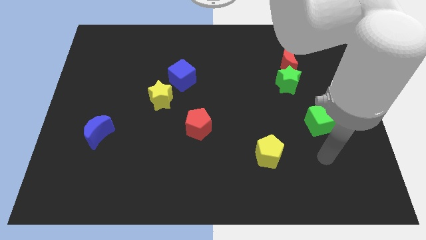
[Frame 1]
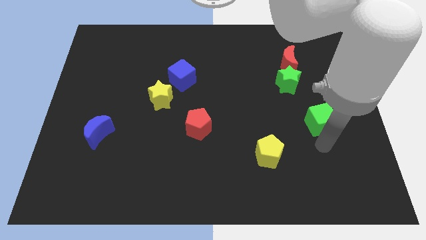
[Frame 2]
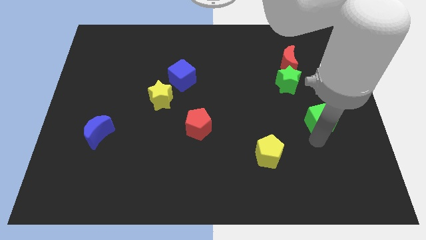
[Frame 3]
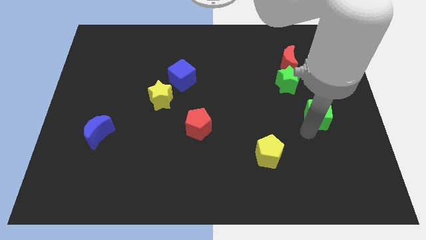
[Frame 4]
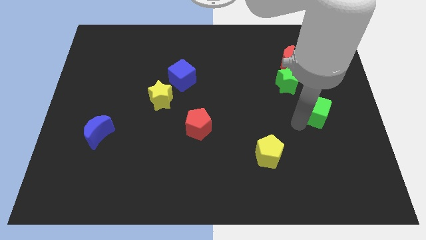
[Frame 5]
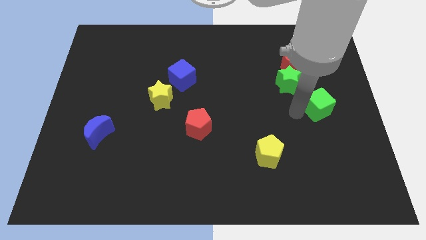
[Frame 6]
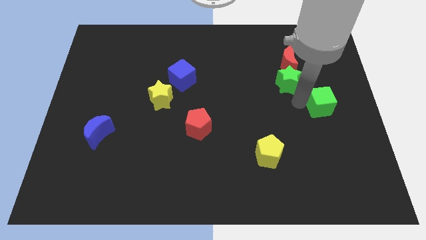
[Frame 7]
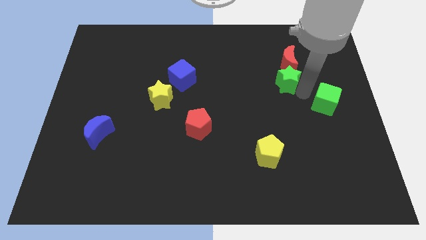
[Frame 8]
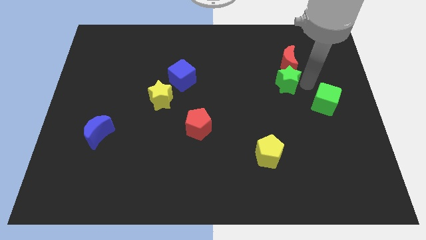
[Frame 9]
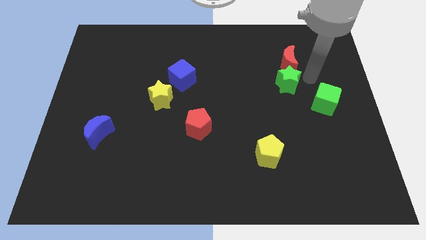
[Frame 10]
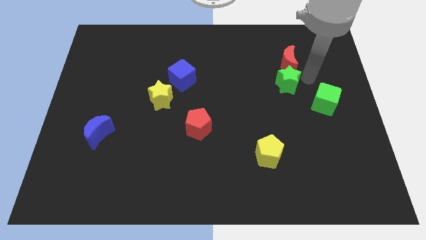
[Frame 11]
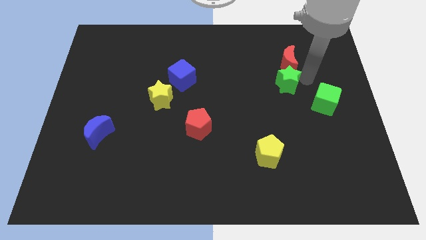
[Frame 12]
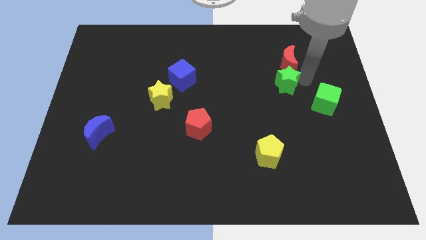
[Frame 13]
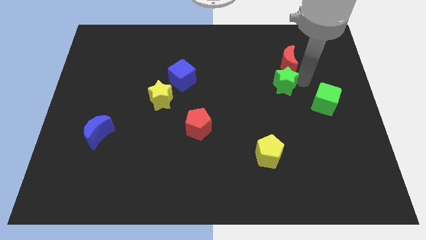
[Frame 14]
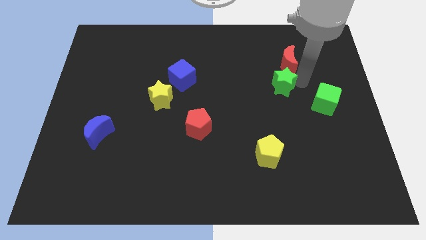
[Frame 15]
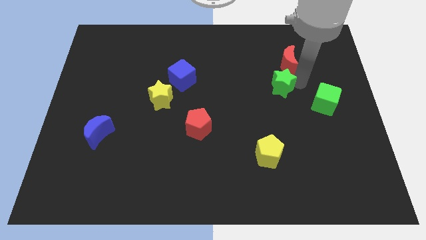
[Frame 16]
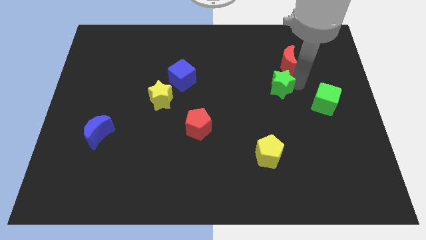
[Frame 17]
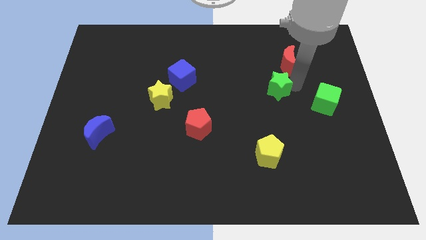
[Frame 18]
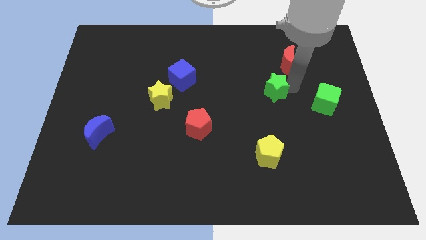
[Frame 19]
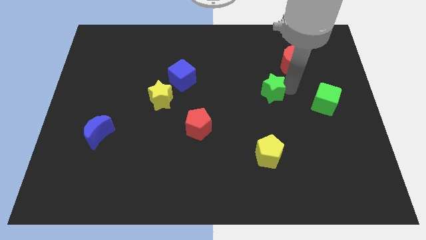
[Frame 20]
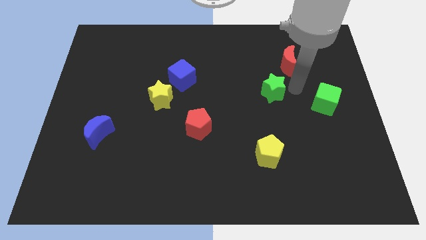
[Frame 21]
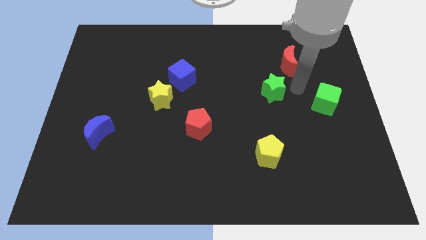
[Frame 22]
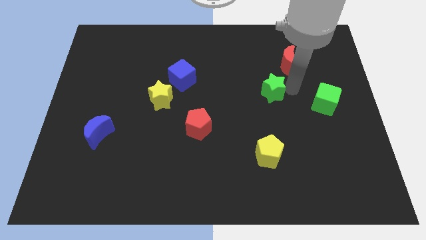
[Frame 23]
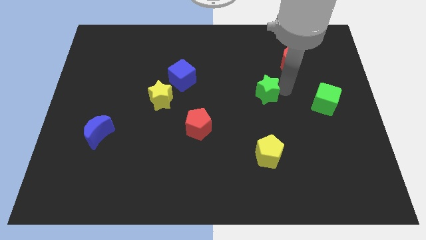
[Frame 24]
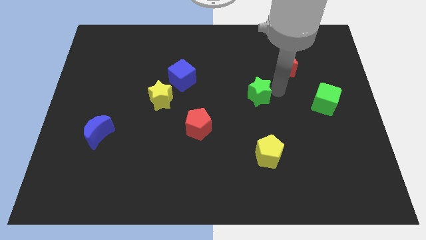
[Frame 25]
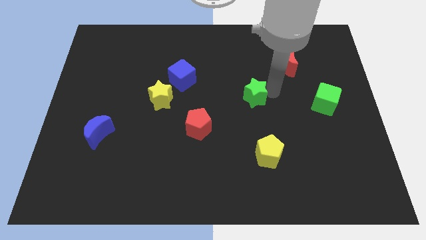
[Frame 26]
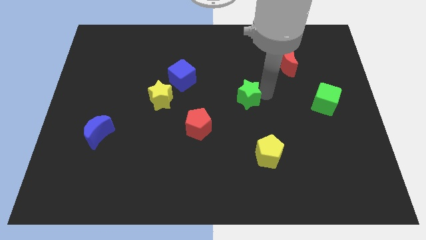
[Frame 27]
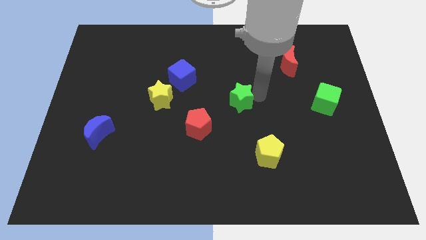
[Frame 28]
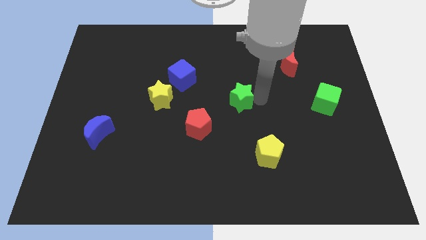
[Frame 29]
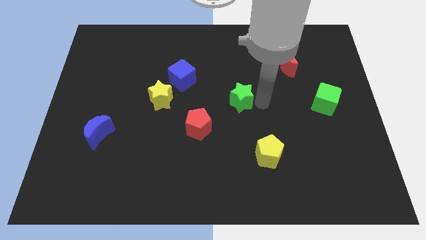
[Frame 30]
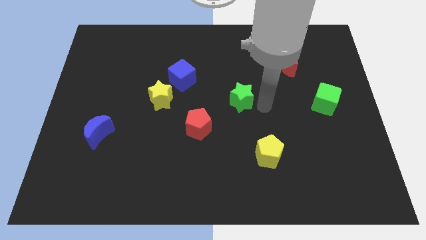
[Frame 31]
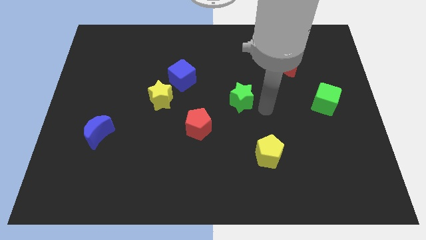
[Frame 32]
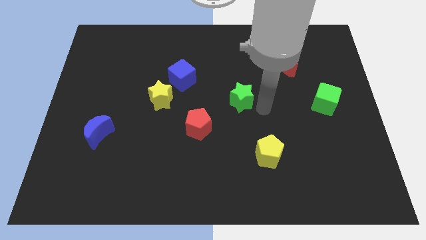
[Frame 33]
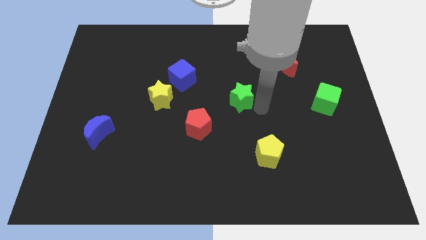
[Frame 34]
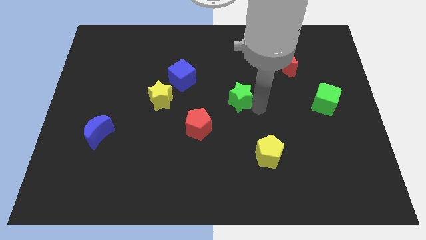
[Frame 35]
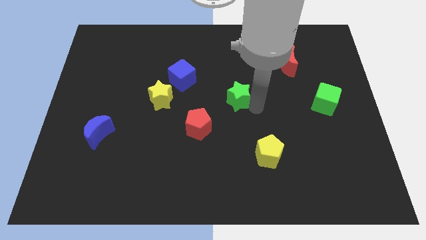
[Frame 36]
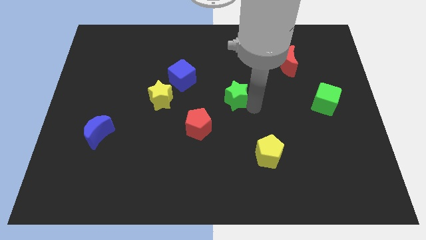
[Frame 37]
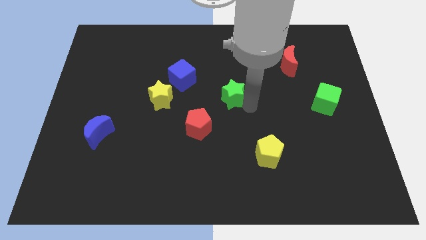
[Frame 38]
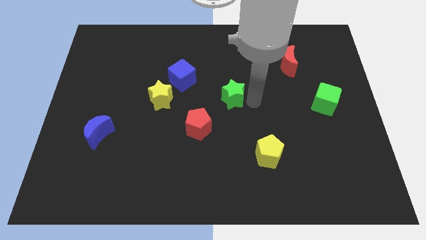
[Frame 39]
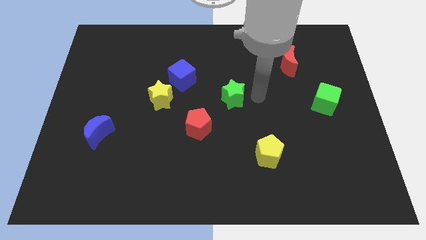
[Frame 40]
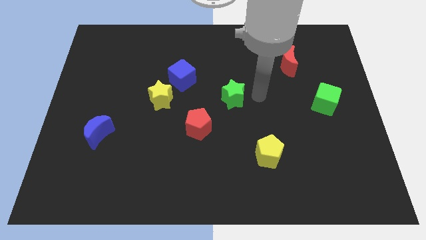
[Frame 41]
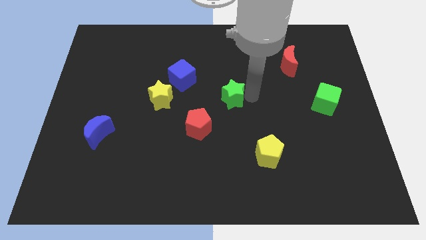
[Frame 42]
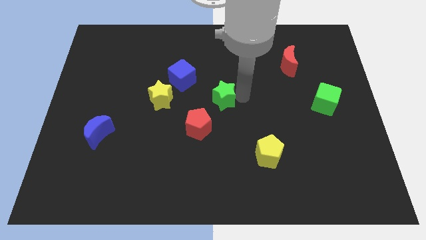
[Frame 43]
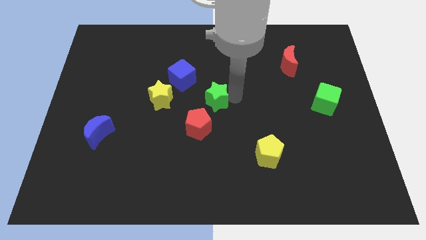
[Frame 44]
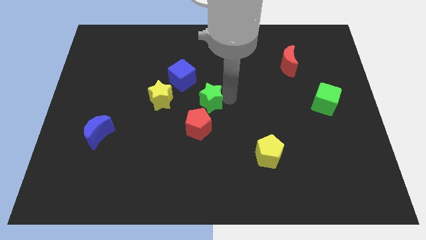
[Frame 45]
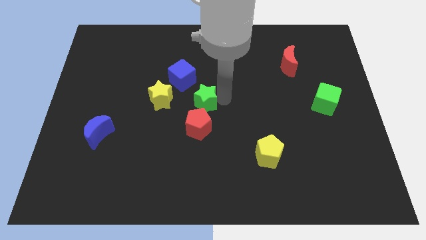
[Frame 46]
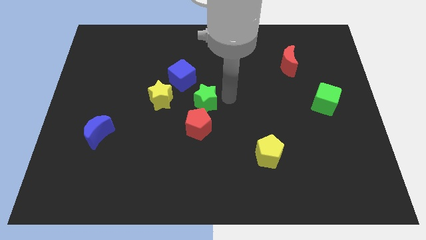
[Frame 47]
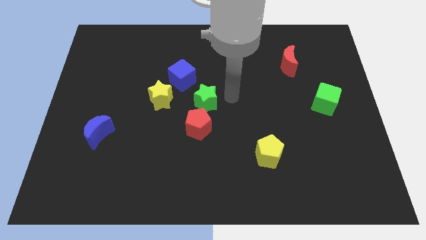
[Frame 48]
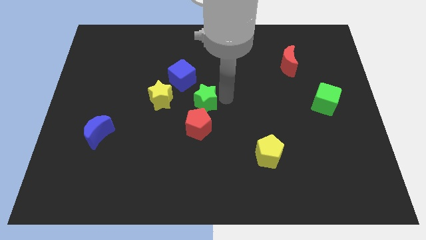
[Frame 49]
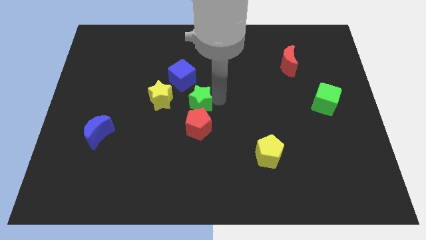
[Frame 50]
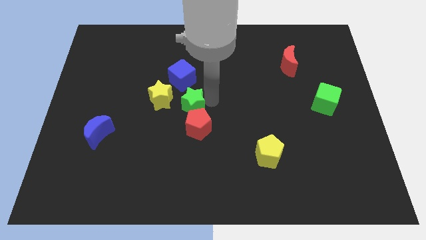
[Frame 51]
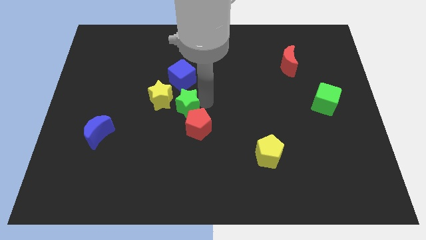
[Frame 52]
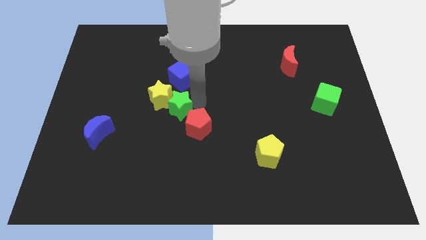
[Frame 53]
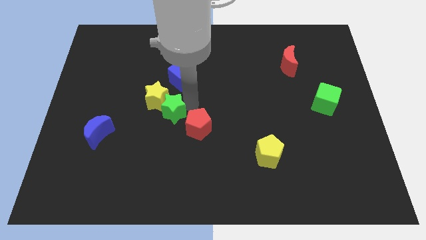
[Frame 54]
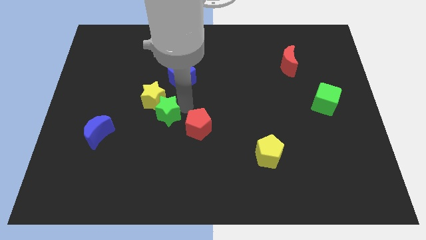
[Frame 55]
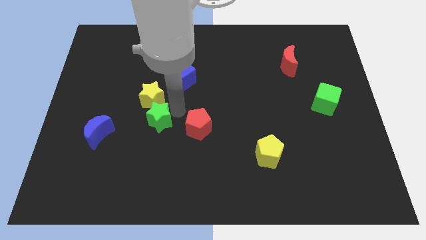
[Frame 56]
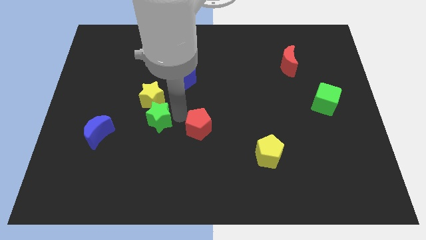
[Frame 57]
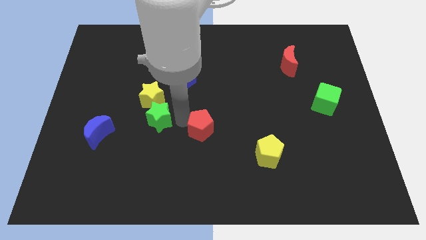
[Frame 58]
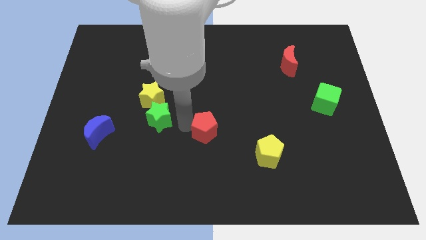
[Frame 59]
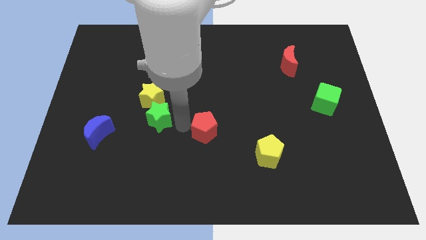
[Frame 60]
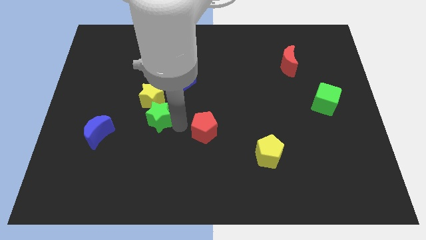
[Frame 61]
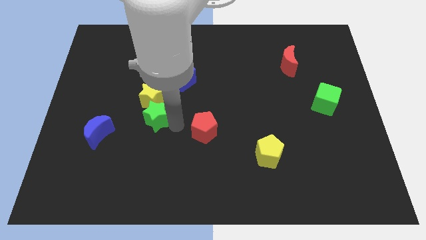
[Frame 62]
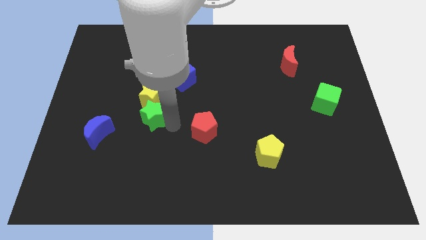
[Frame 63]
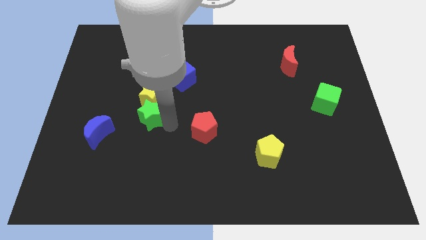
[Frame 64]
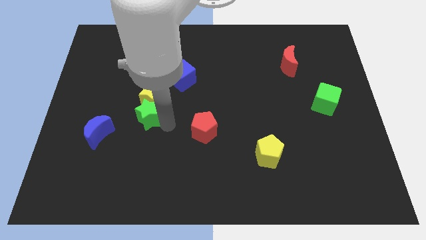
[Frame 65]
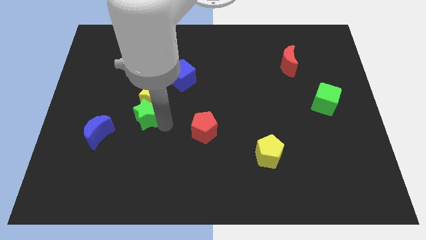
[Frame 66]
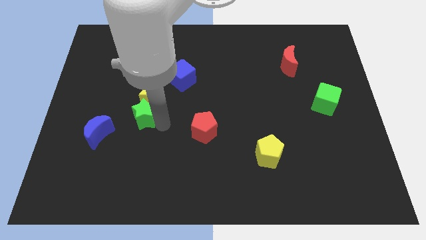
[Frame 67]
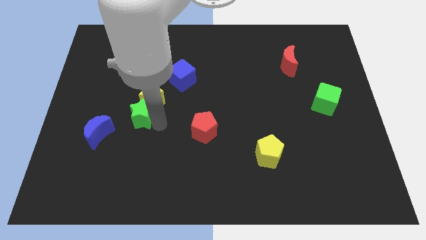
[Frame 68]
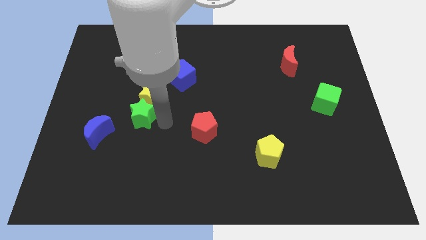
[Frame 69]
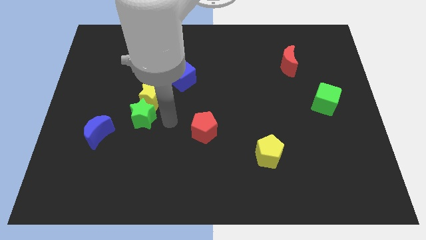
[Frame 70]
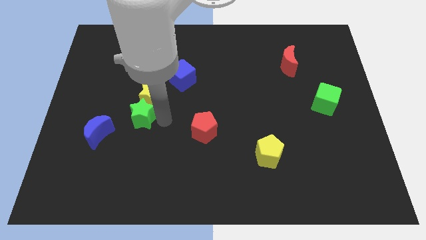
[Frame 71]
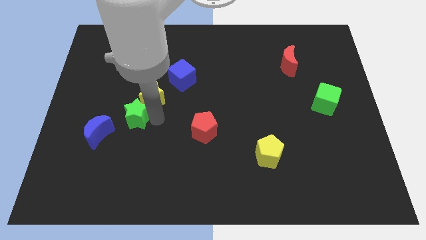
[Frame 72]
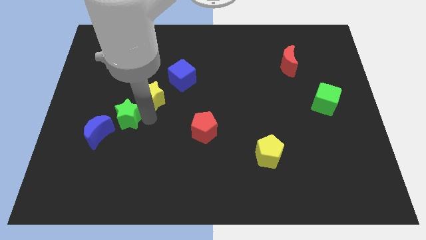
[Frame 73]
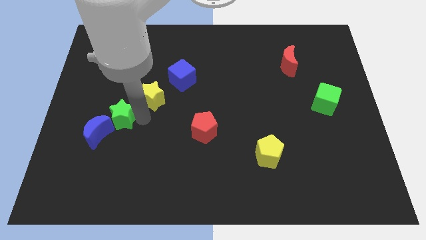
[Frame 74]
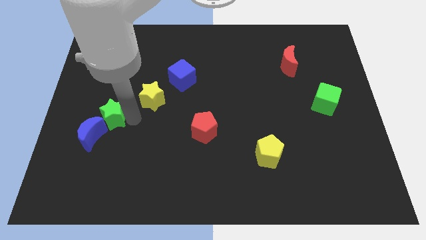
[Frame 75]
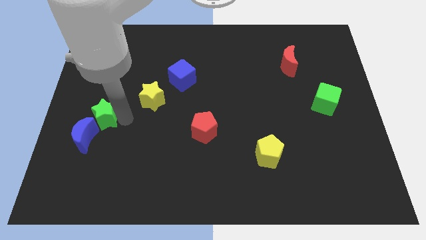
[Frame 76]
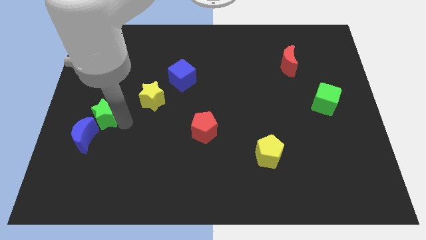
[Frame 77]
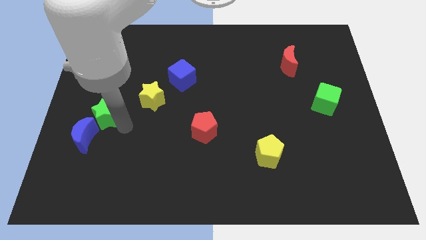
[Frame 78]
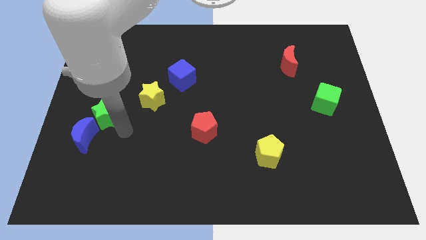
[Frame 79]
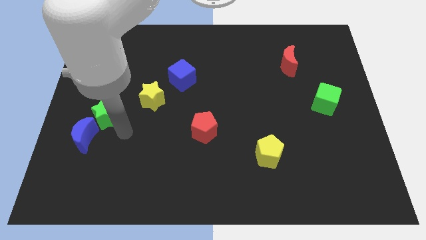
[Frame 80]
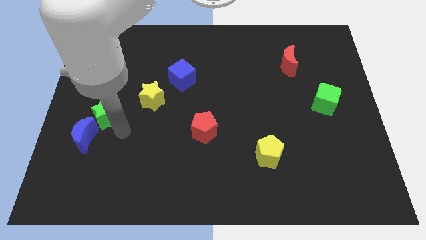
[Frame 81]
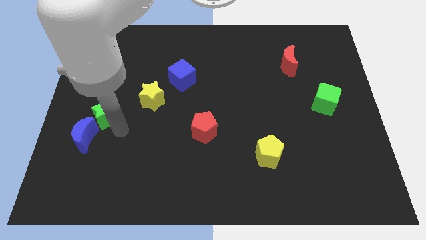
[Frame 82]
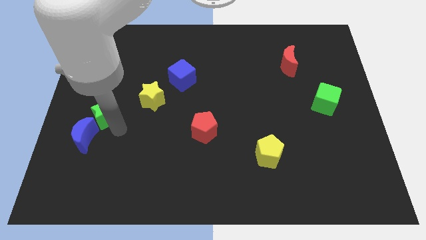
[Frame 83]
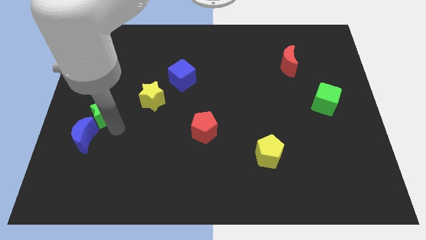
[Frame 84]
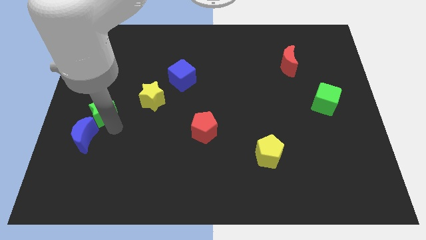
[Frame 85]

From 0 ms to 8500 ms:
slide the green star to the left side
